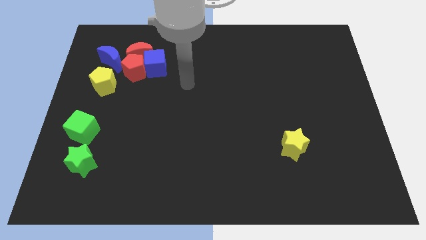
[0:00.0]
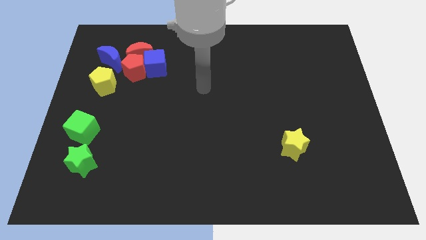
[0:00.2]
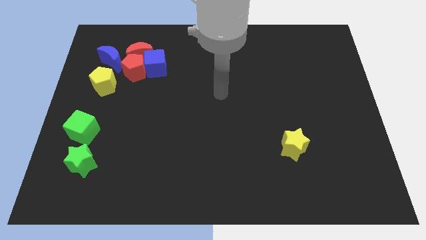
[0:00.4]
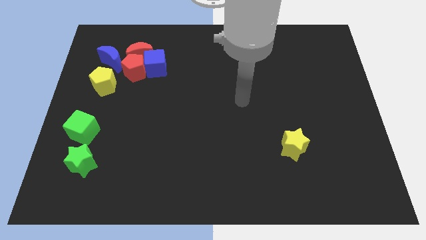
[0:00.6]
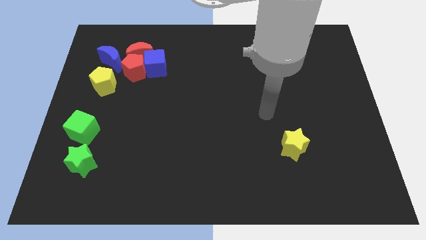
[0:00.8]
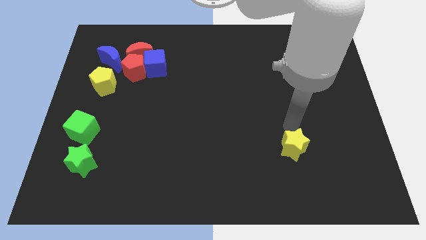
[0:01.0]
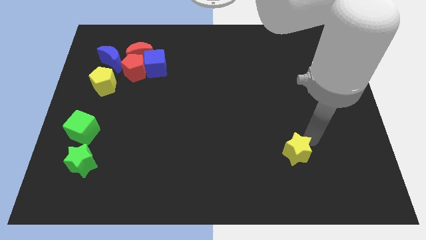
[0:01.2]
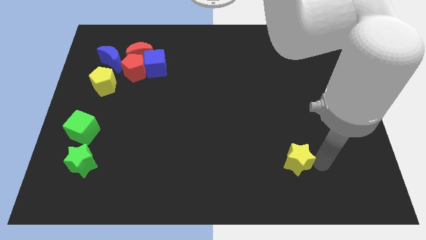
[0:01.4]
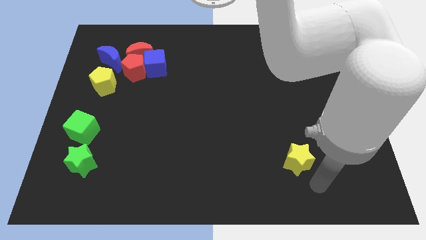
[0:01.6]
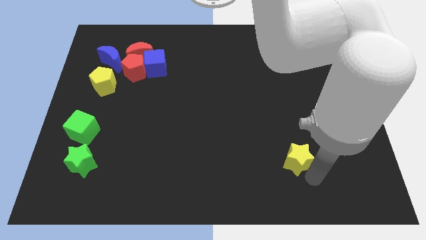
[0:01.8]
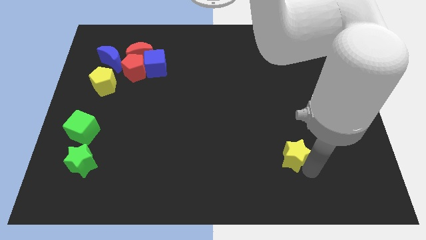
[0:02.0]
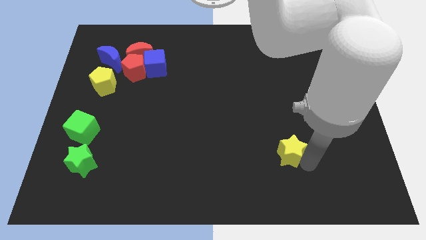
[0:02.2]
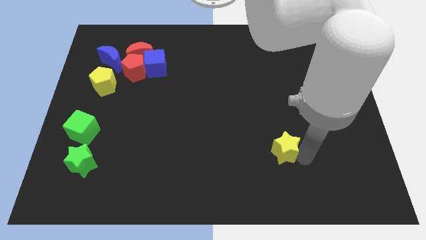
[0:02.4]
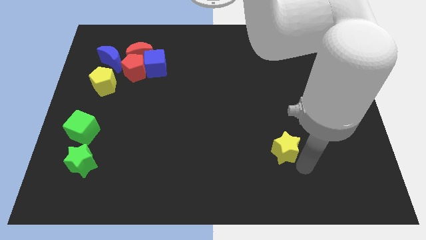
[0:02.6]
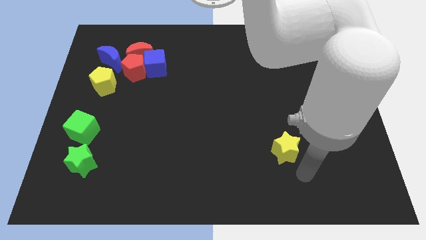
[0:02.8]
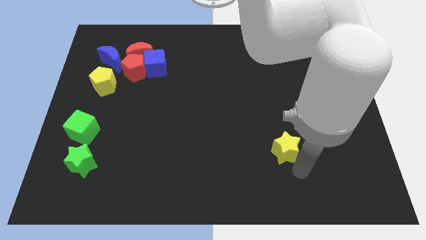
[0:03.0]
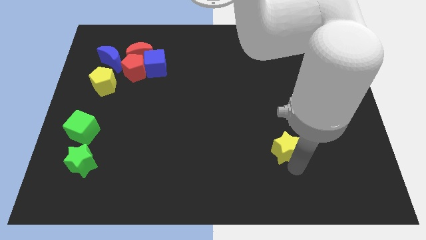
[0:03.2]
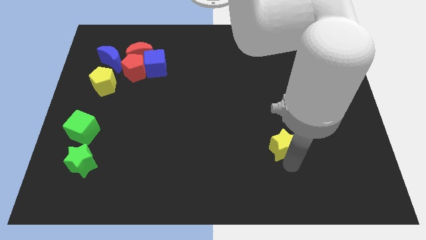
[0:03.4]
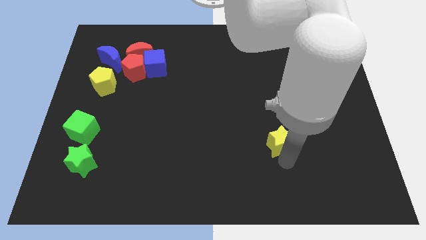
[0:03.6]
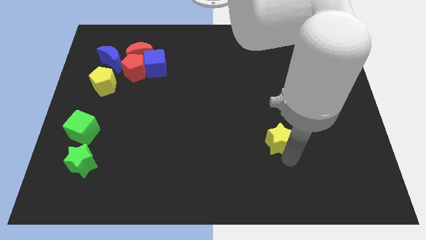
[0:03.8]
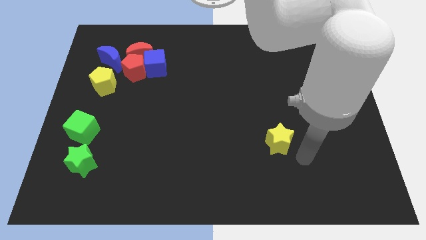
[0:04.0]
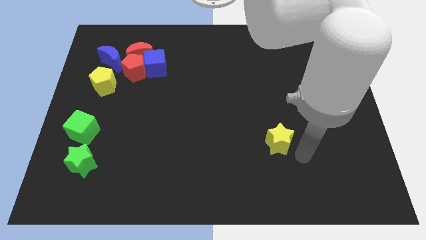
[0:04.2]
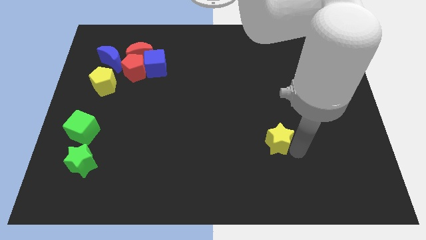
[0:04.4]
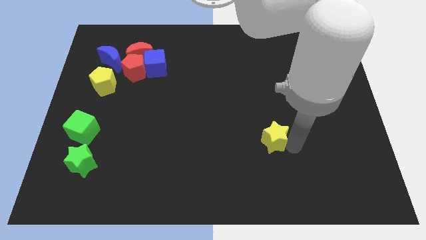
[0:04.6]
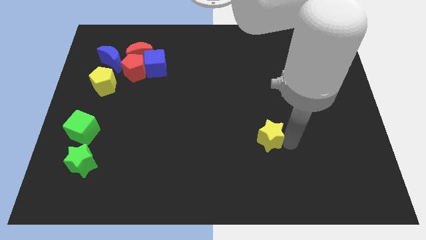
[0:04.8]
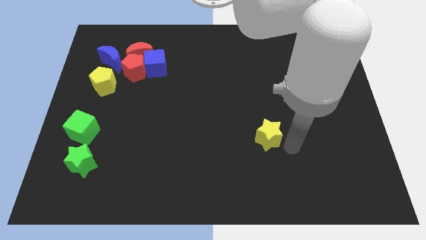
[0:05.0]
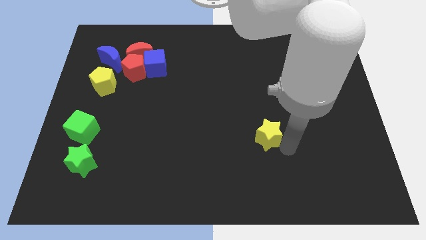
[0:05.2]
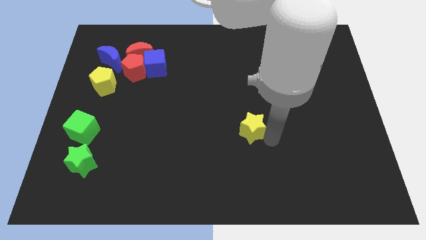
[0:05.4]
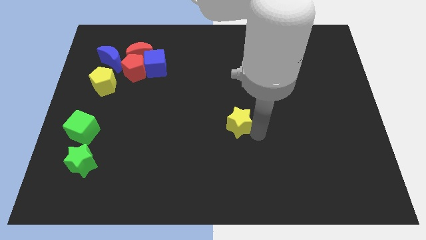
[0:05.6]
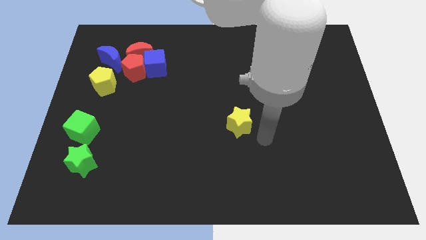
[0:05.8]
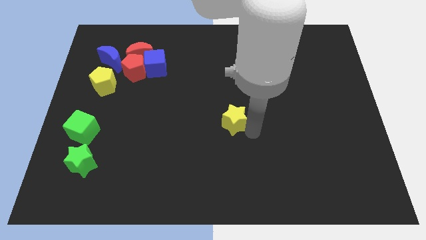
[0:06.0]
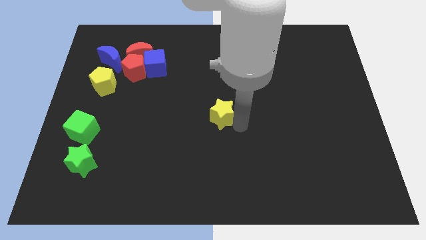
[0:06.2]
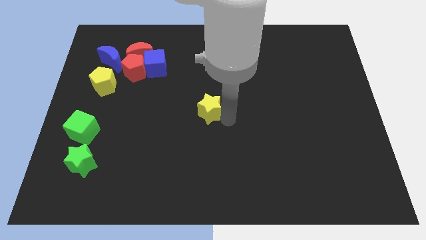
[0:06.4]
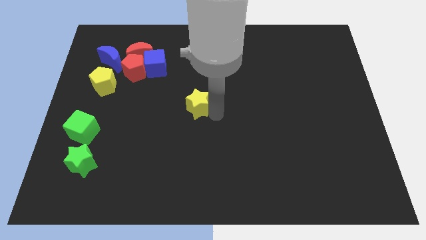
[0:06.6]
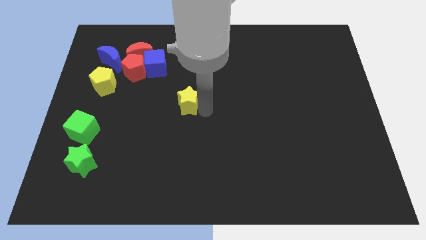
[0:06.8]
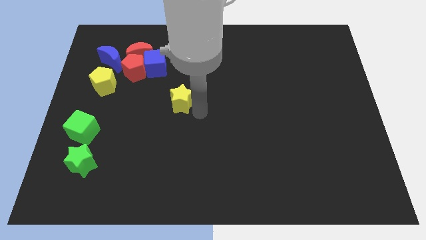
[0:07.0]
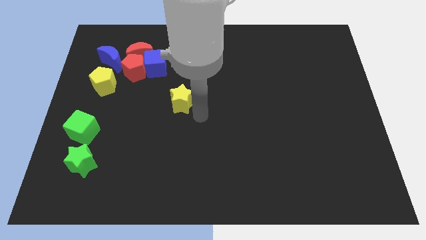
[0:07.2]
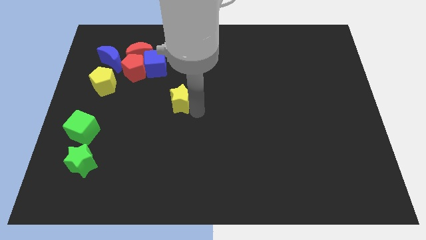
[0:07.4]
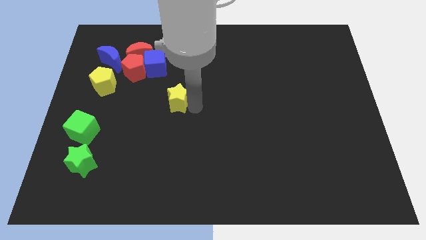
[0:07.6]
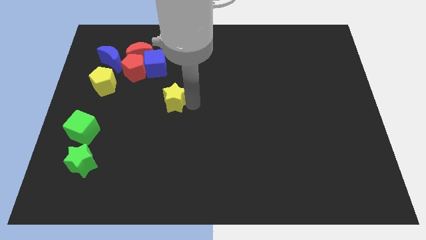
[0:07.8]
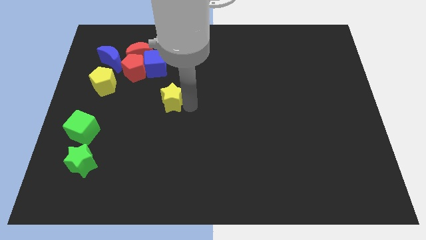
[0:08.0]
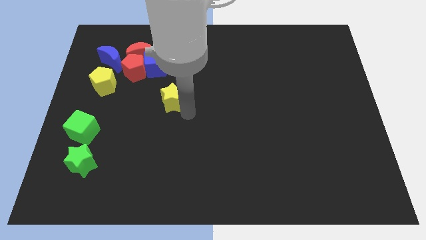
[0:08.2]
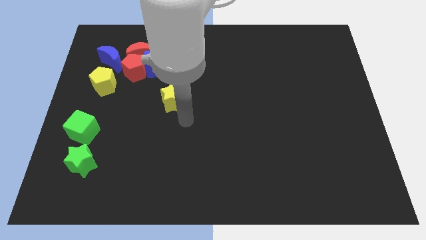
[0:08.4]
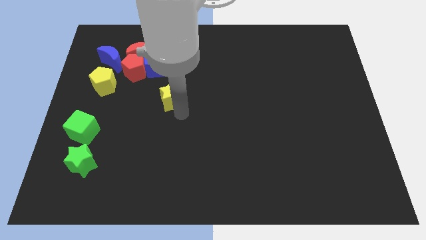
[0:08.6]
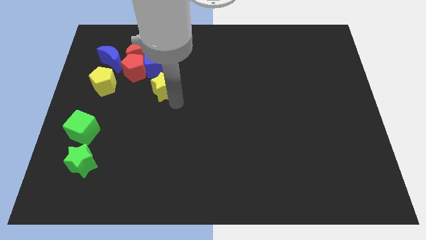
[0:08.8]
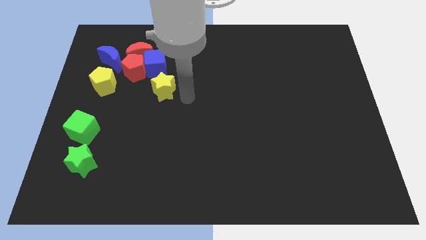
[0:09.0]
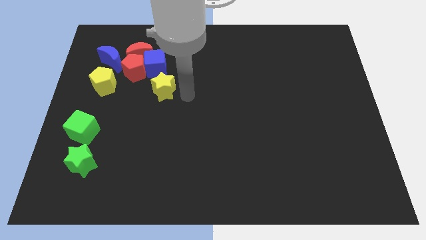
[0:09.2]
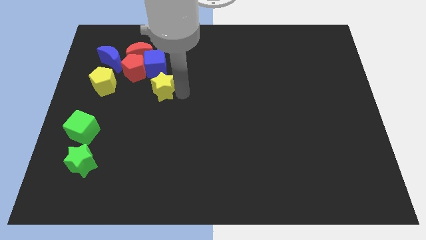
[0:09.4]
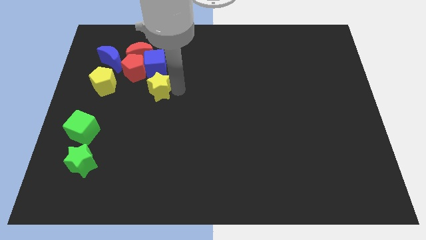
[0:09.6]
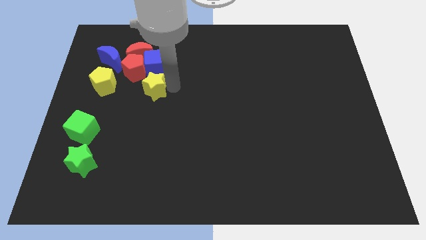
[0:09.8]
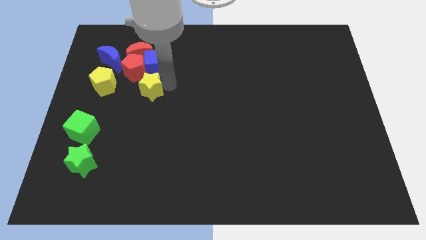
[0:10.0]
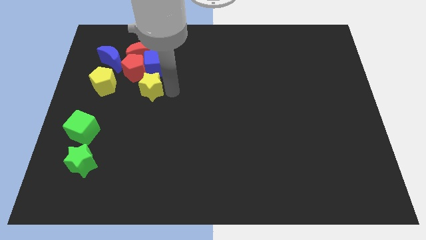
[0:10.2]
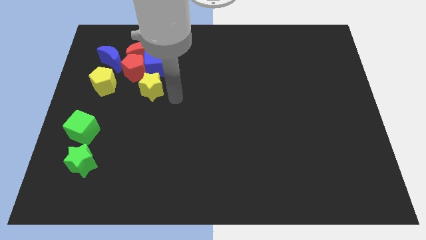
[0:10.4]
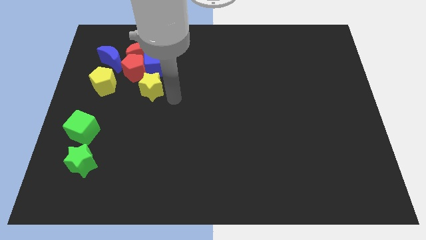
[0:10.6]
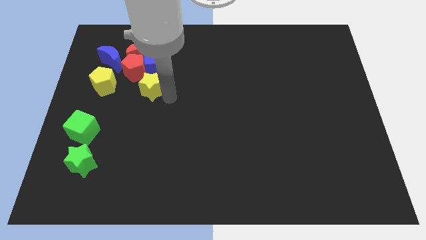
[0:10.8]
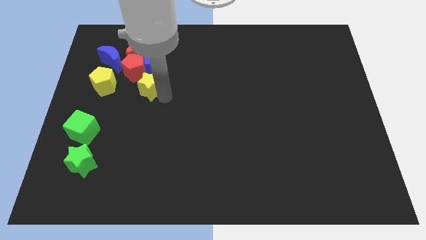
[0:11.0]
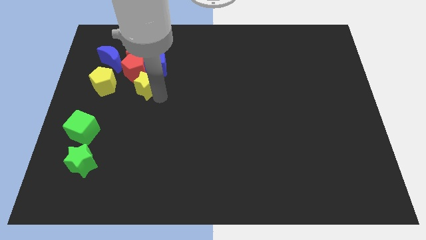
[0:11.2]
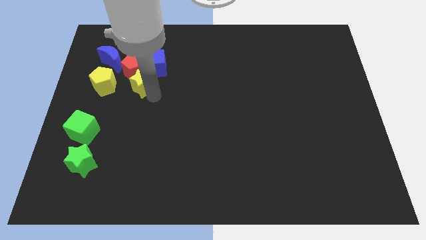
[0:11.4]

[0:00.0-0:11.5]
push the yellow star to the bottom right side of the blue moon

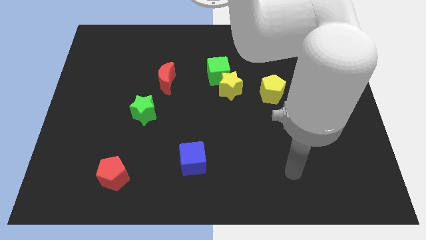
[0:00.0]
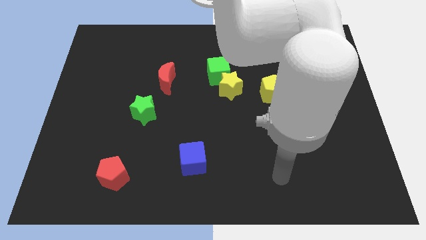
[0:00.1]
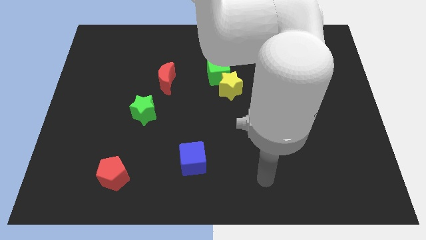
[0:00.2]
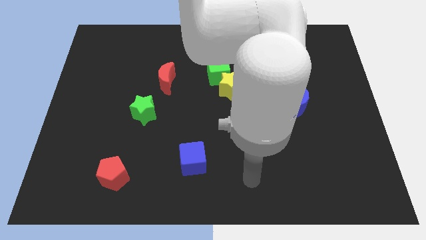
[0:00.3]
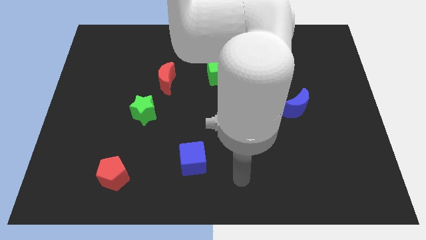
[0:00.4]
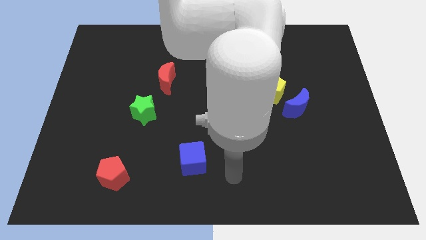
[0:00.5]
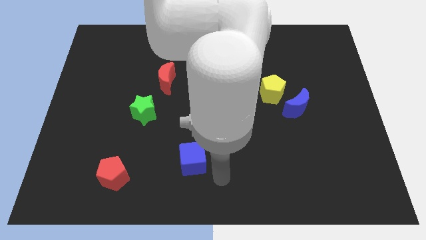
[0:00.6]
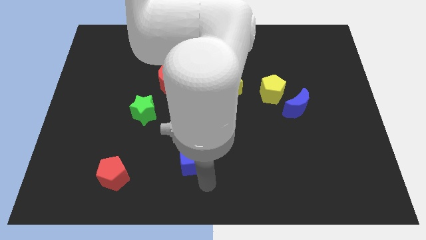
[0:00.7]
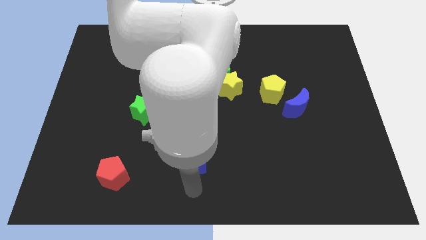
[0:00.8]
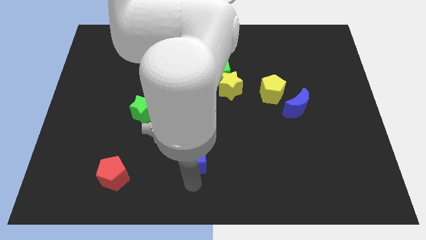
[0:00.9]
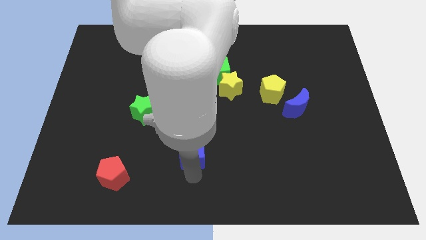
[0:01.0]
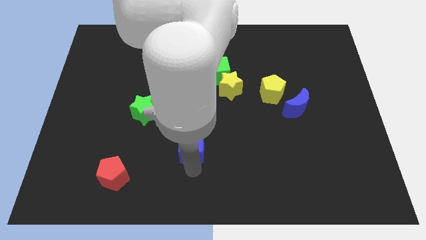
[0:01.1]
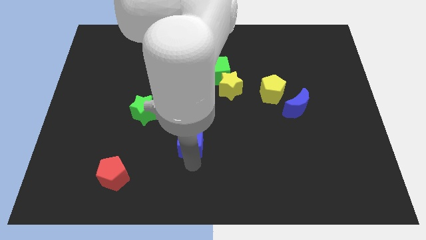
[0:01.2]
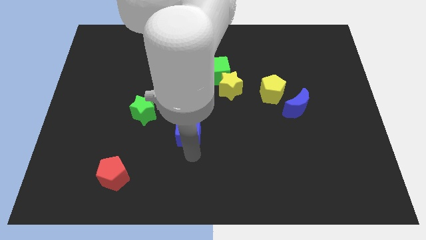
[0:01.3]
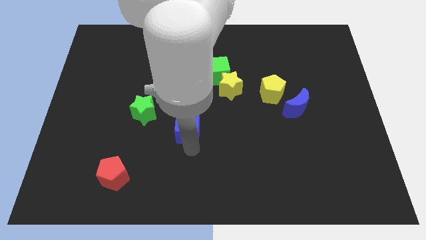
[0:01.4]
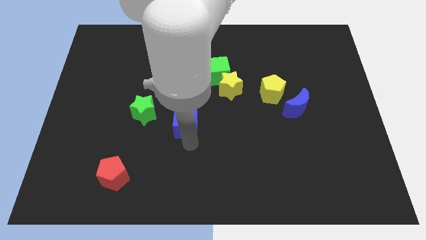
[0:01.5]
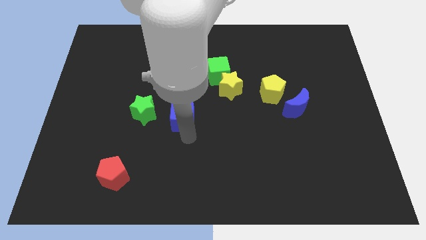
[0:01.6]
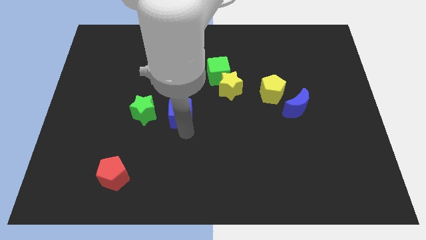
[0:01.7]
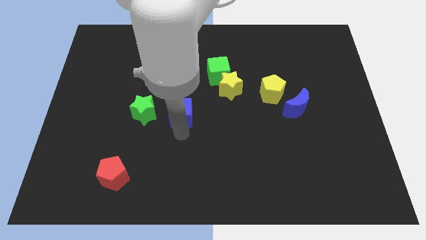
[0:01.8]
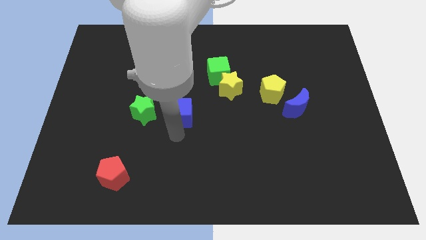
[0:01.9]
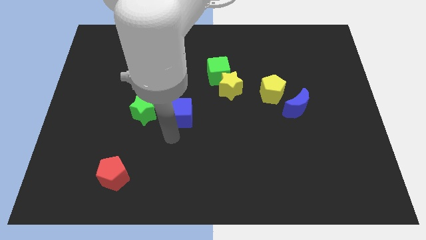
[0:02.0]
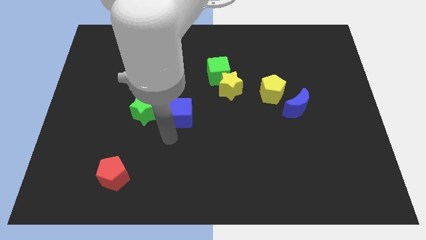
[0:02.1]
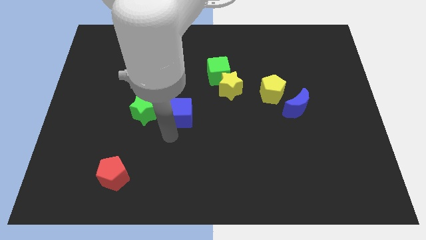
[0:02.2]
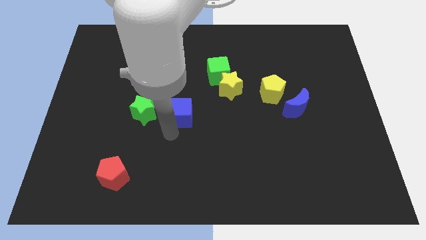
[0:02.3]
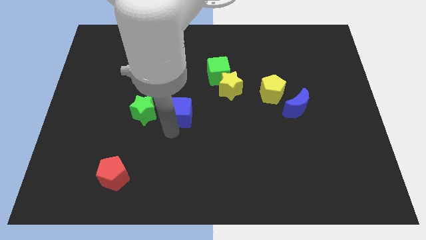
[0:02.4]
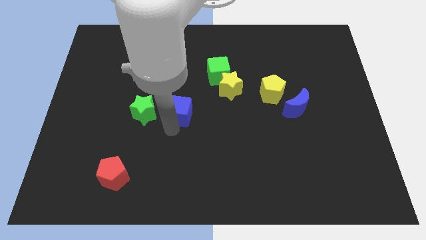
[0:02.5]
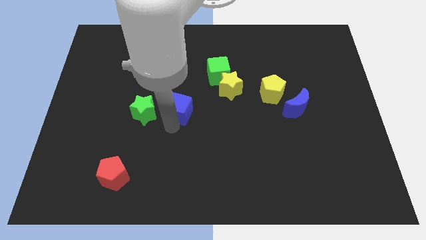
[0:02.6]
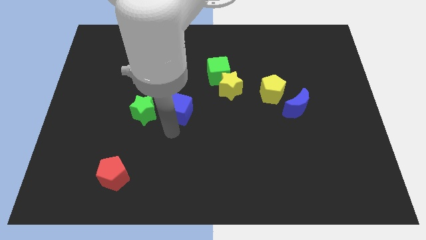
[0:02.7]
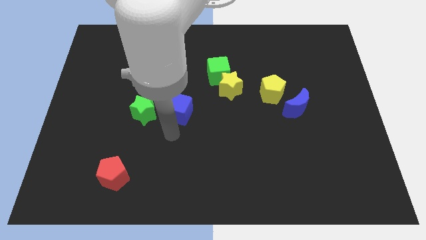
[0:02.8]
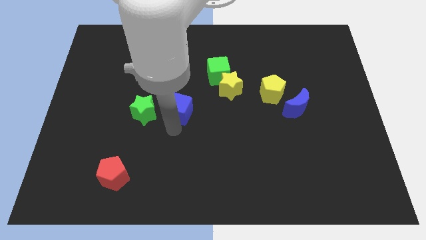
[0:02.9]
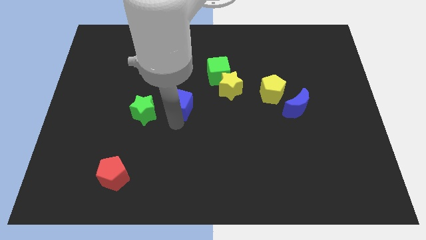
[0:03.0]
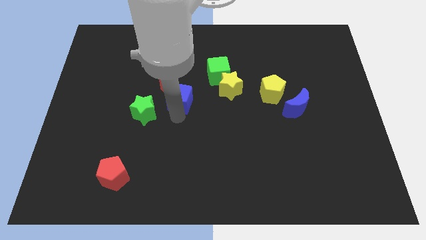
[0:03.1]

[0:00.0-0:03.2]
put the blue cube just left of the yellow star
